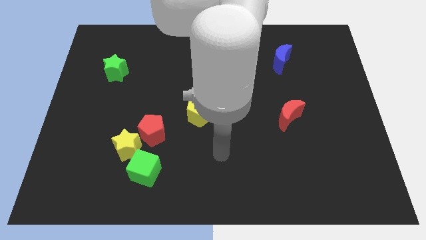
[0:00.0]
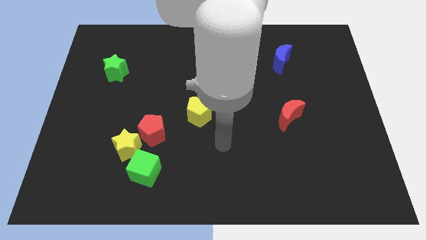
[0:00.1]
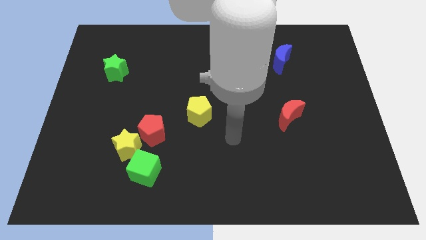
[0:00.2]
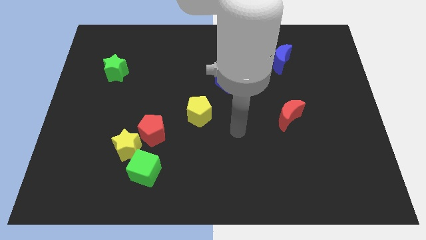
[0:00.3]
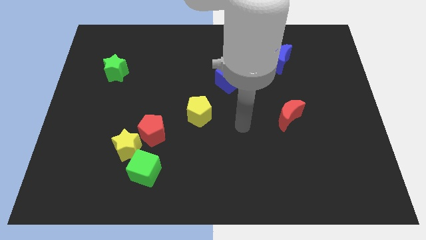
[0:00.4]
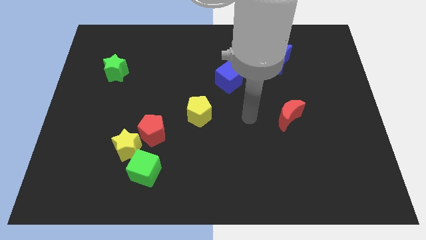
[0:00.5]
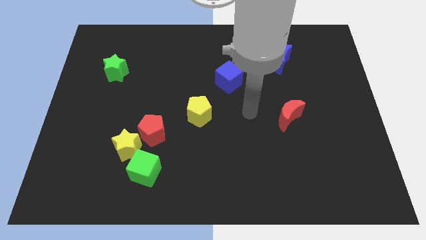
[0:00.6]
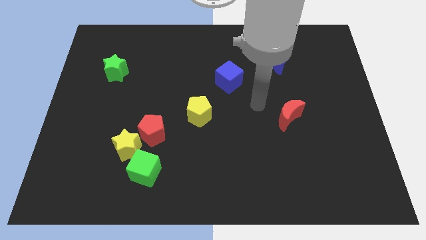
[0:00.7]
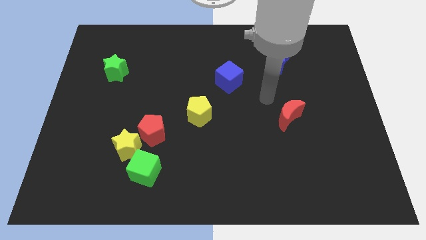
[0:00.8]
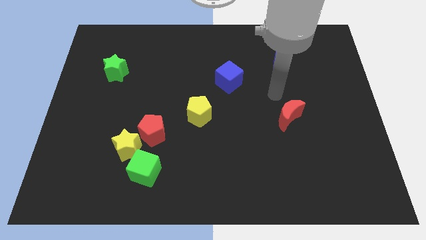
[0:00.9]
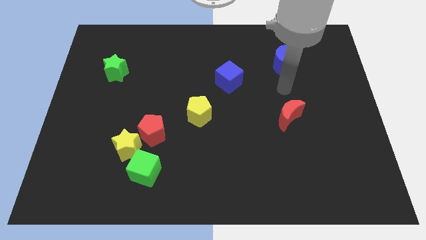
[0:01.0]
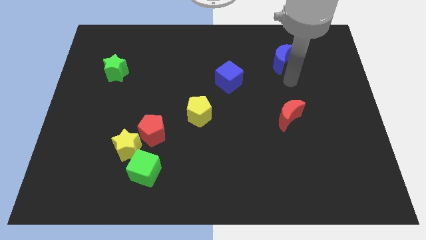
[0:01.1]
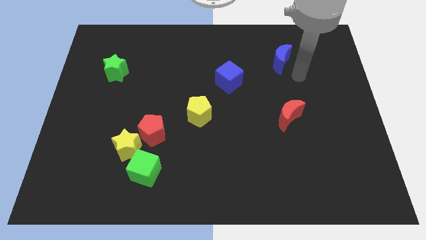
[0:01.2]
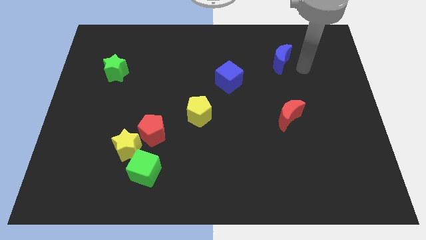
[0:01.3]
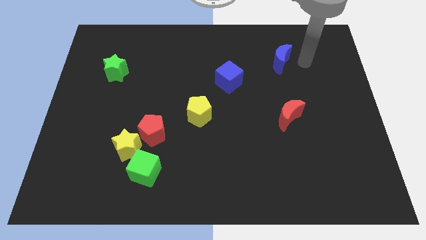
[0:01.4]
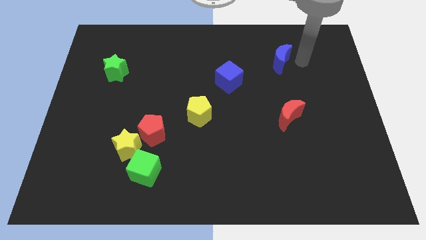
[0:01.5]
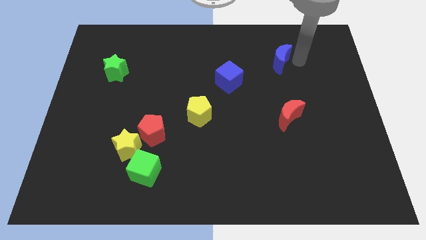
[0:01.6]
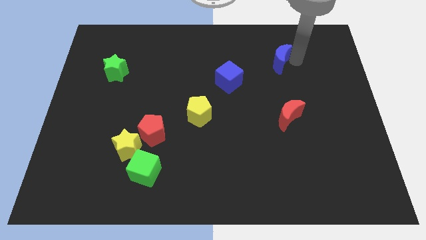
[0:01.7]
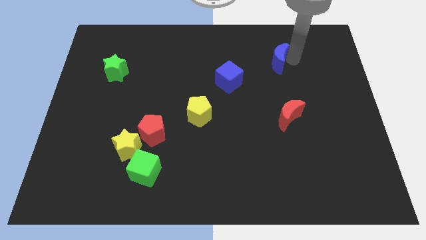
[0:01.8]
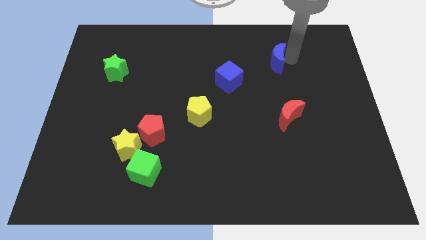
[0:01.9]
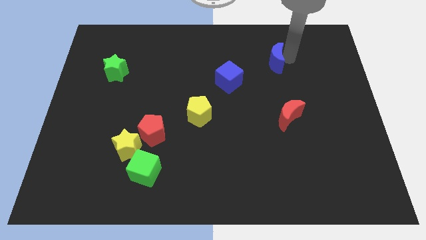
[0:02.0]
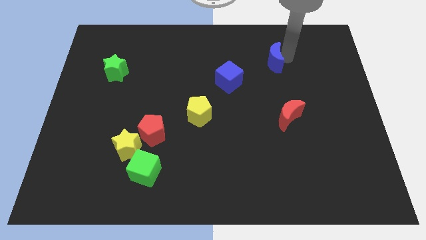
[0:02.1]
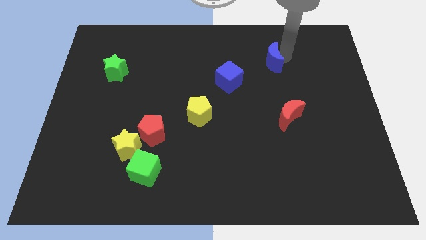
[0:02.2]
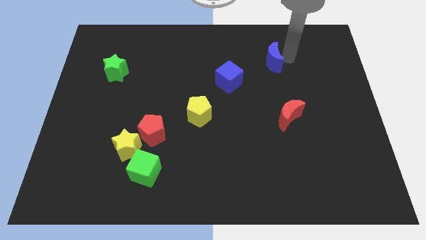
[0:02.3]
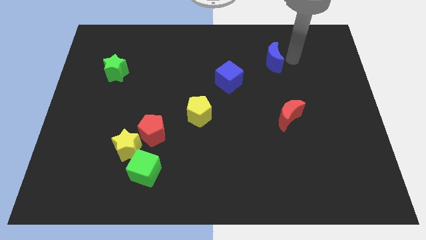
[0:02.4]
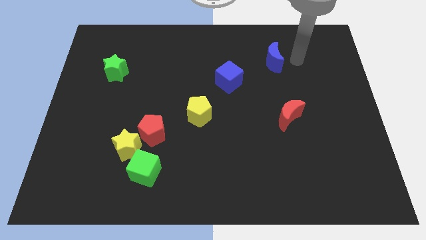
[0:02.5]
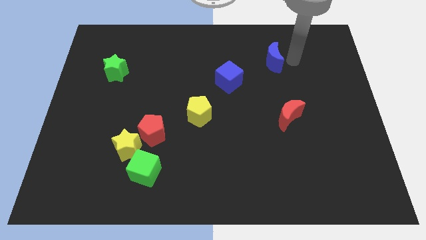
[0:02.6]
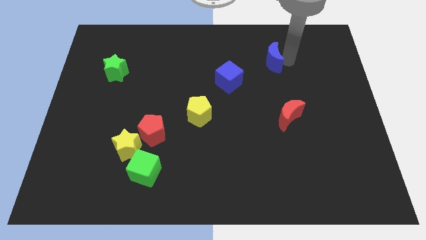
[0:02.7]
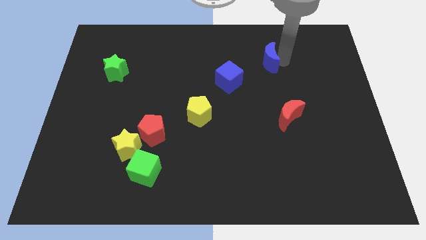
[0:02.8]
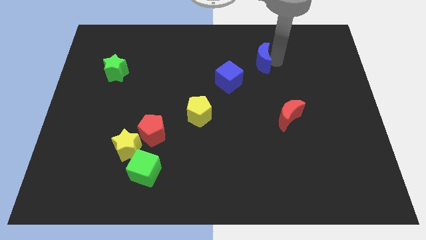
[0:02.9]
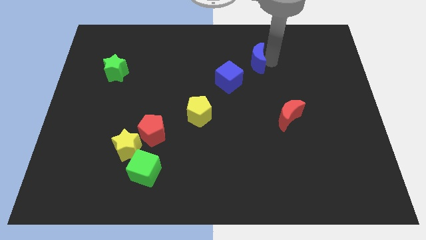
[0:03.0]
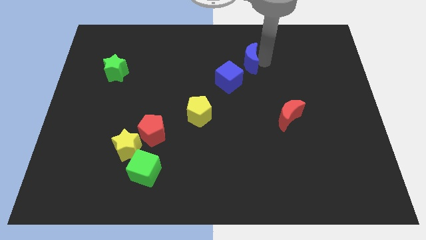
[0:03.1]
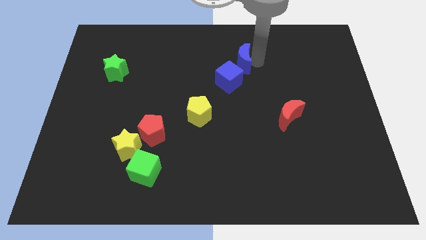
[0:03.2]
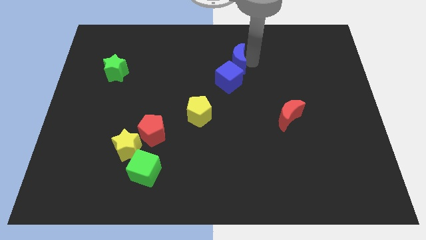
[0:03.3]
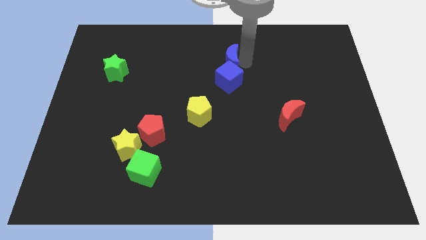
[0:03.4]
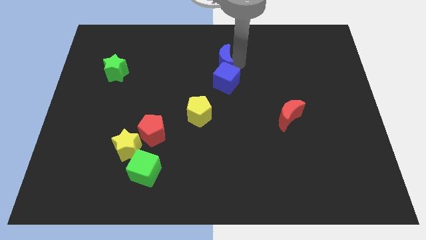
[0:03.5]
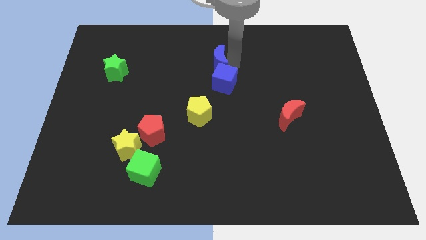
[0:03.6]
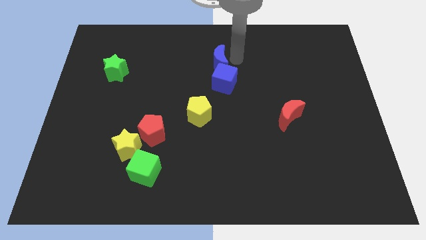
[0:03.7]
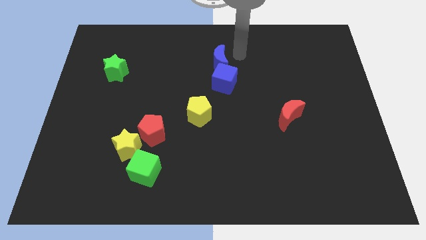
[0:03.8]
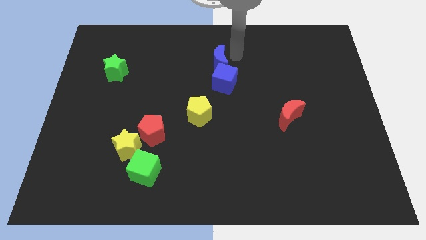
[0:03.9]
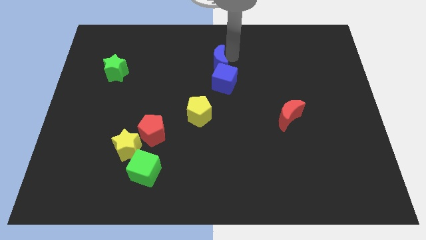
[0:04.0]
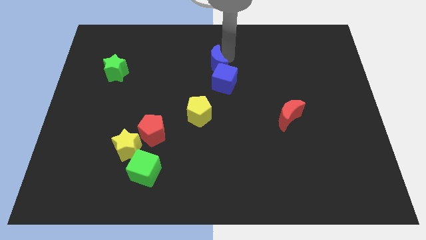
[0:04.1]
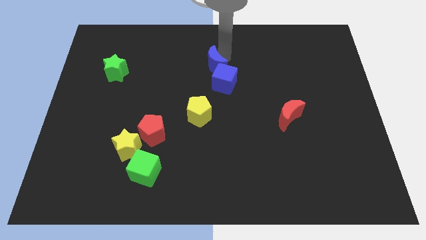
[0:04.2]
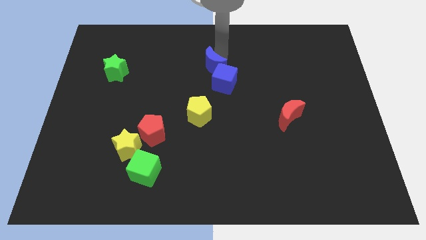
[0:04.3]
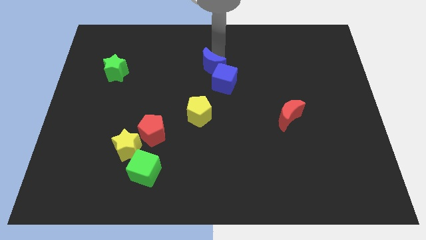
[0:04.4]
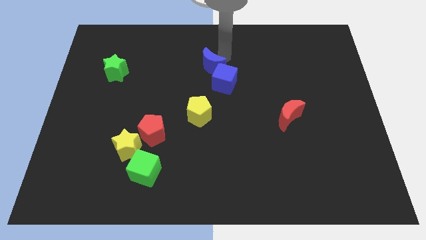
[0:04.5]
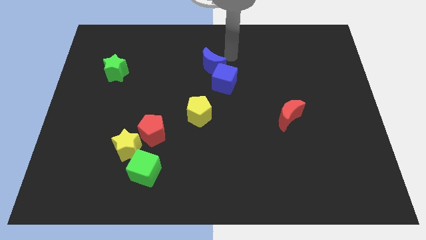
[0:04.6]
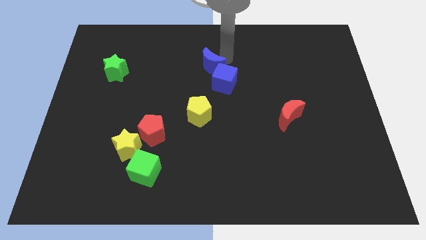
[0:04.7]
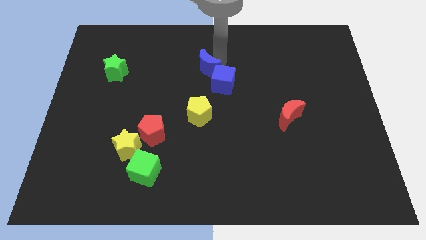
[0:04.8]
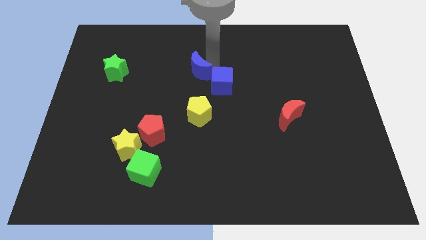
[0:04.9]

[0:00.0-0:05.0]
move the blue moon to the left of the blue cube

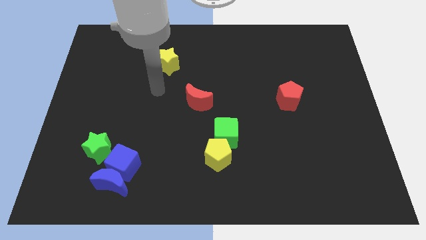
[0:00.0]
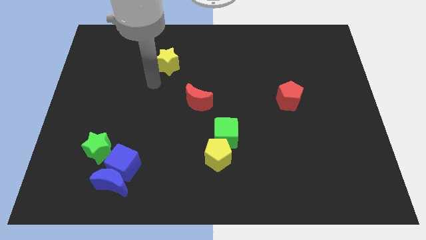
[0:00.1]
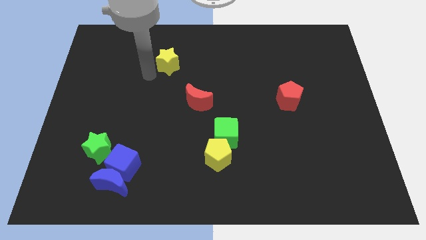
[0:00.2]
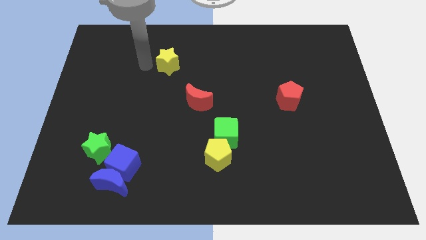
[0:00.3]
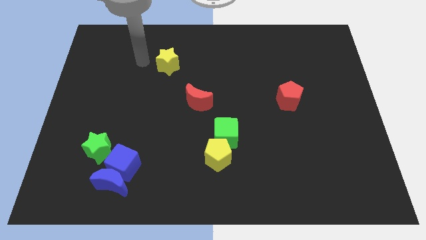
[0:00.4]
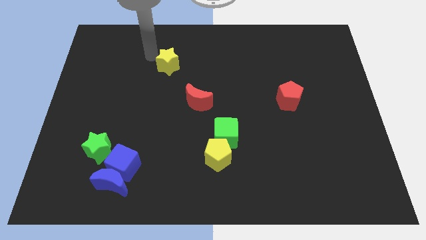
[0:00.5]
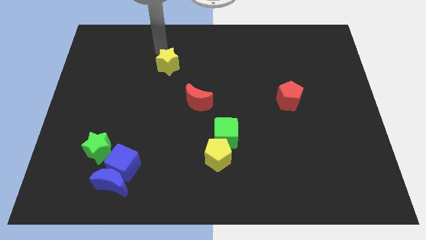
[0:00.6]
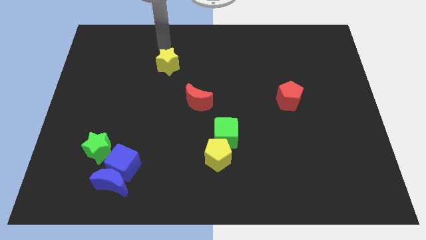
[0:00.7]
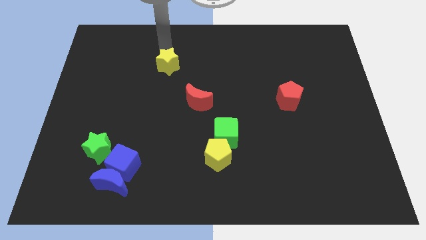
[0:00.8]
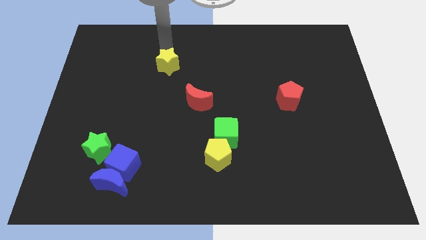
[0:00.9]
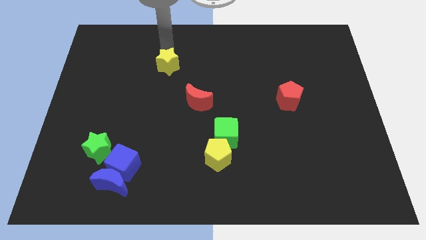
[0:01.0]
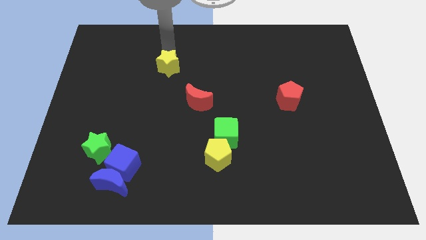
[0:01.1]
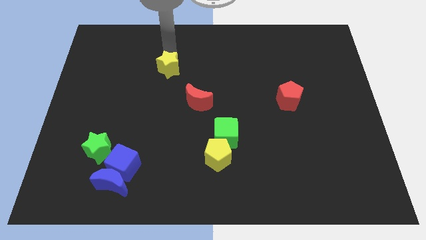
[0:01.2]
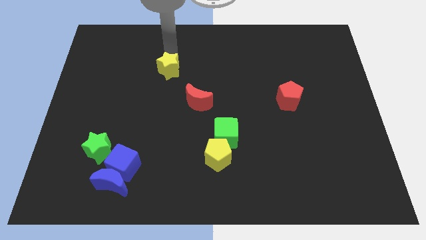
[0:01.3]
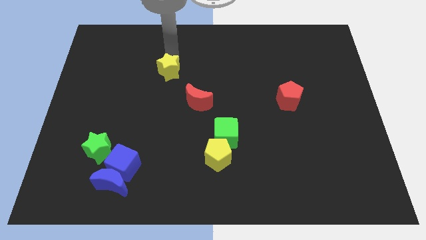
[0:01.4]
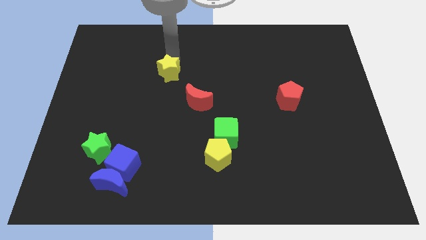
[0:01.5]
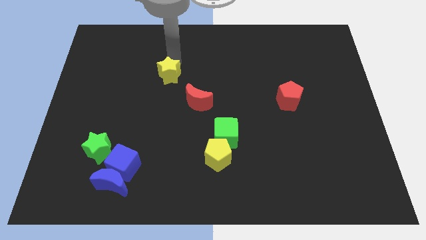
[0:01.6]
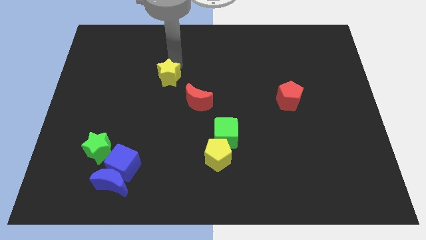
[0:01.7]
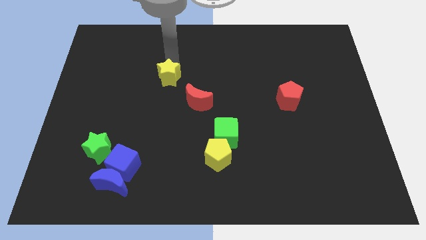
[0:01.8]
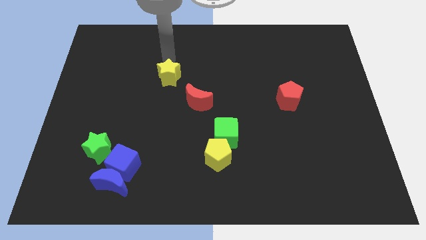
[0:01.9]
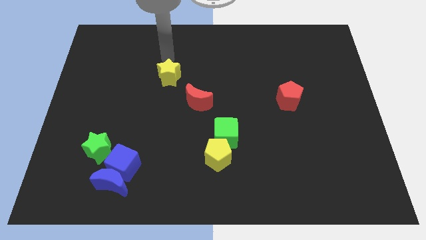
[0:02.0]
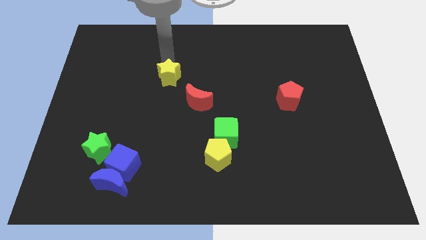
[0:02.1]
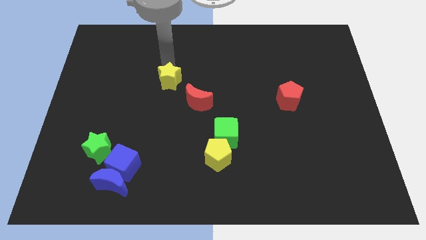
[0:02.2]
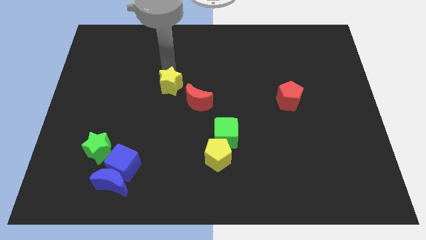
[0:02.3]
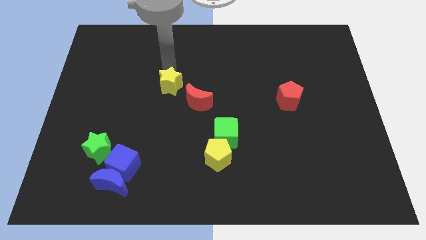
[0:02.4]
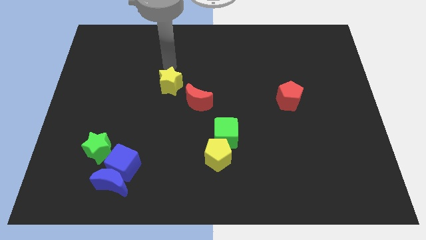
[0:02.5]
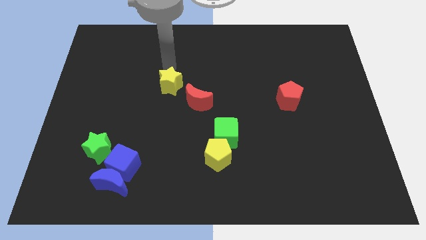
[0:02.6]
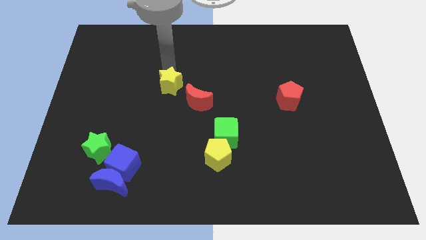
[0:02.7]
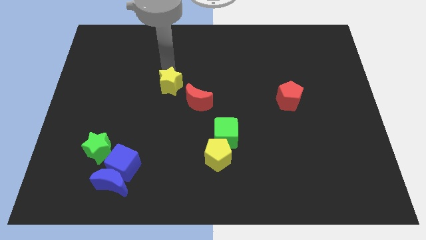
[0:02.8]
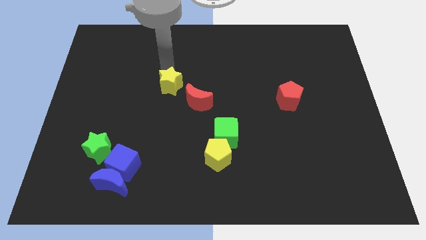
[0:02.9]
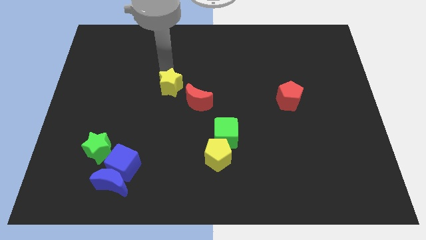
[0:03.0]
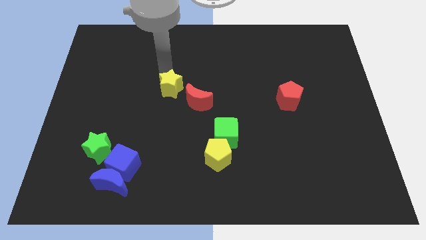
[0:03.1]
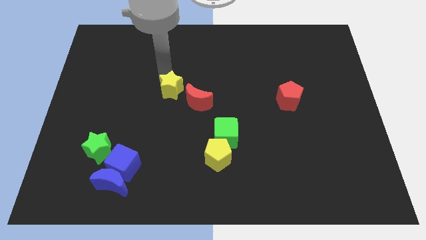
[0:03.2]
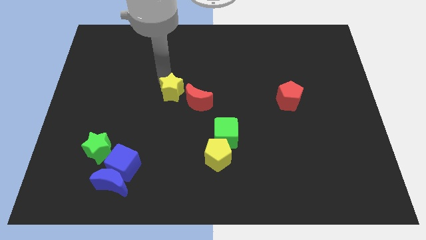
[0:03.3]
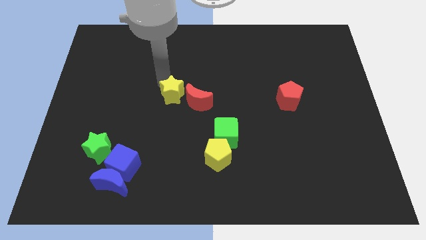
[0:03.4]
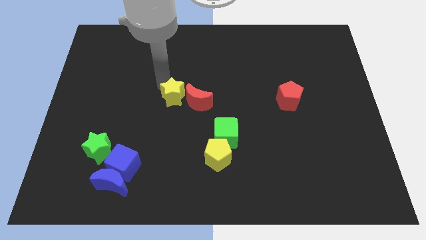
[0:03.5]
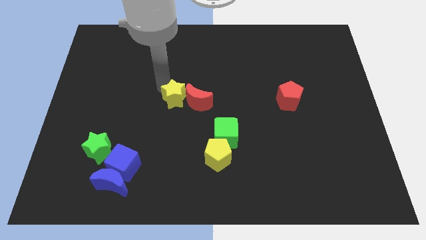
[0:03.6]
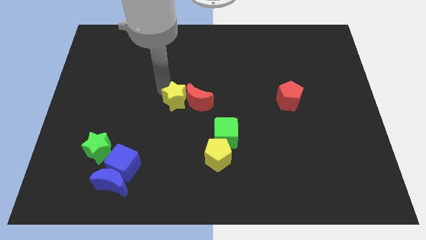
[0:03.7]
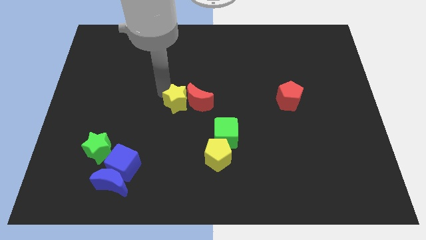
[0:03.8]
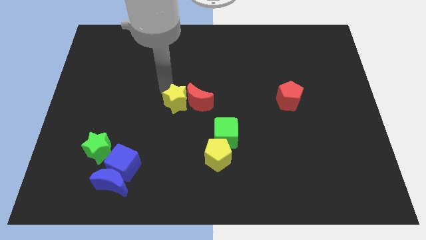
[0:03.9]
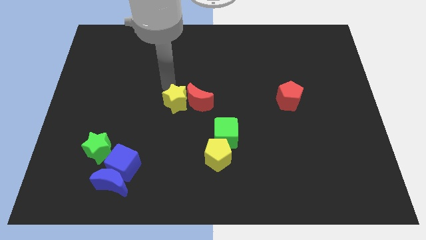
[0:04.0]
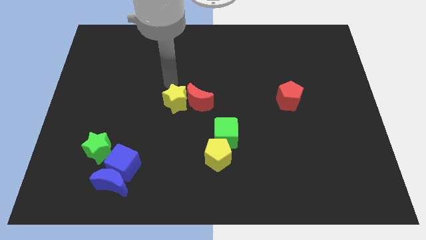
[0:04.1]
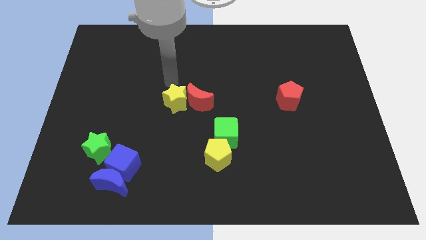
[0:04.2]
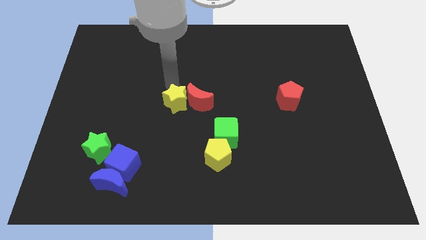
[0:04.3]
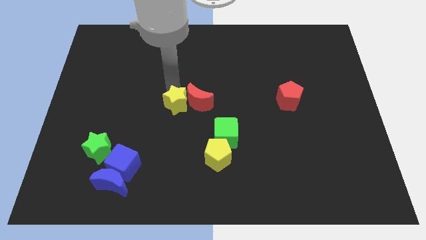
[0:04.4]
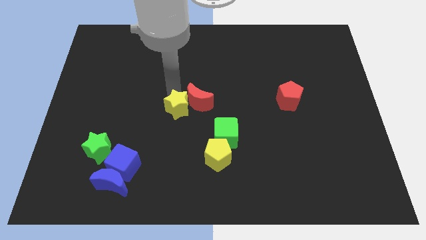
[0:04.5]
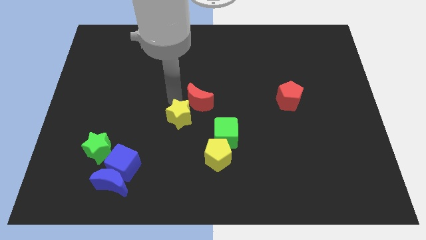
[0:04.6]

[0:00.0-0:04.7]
move the yellow star to the bottom side of the red moon
